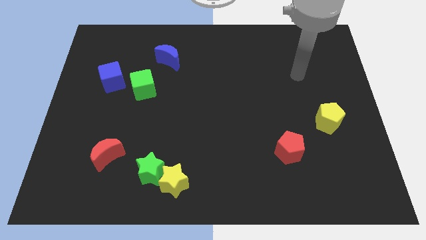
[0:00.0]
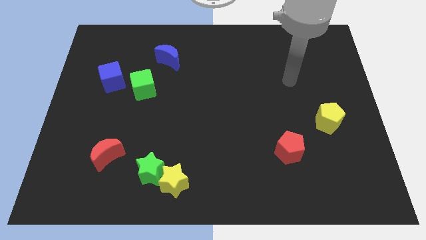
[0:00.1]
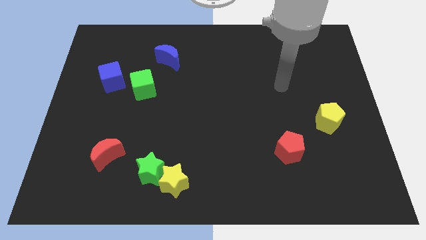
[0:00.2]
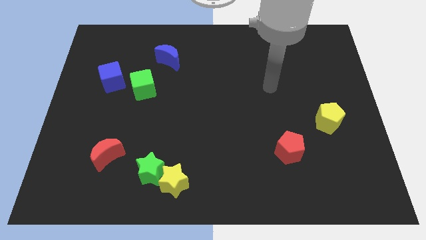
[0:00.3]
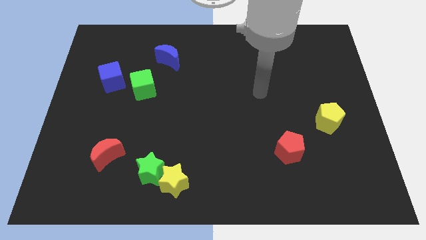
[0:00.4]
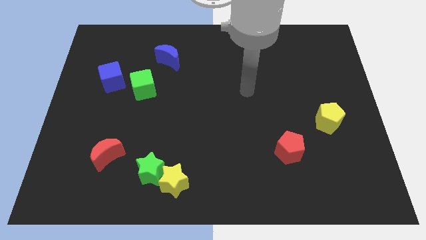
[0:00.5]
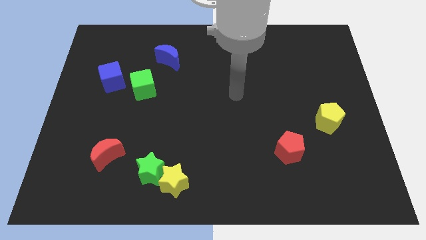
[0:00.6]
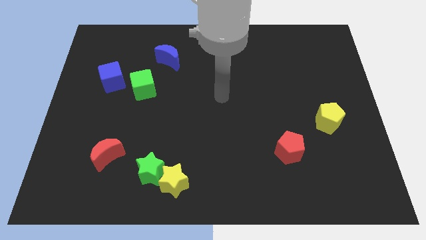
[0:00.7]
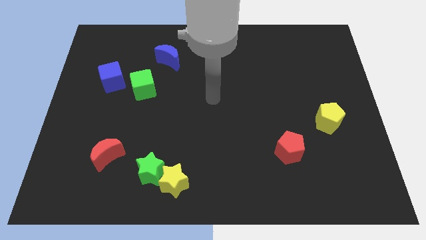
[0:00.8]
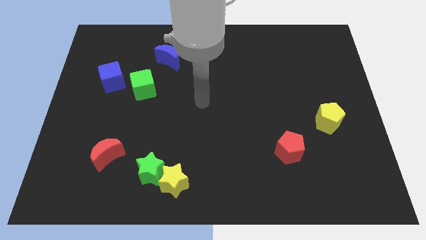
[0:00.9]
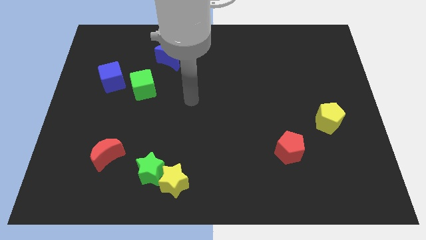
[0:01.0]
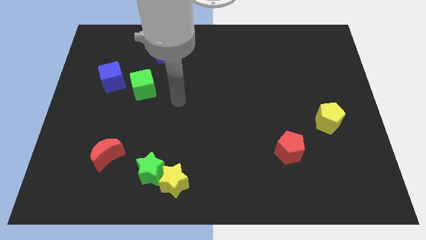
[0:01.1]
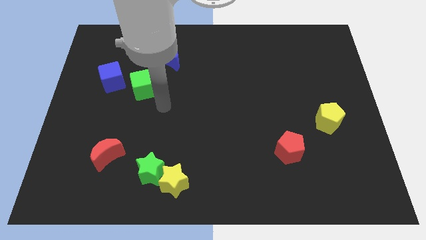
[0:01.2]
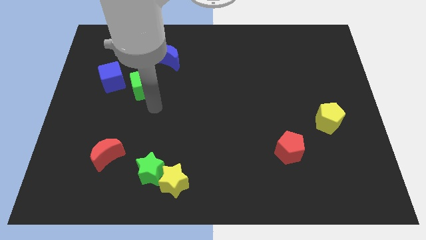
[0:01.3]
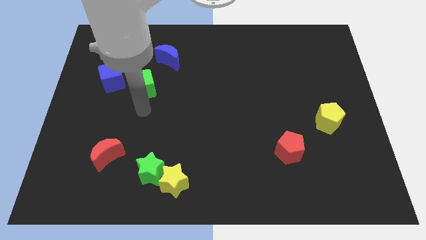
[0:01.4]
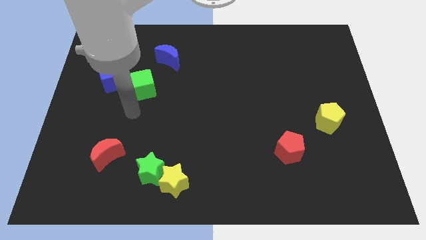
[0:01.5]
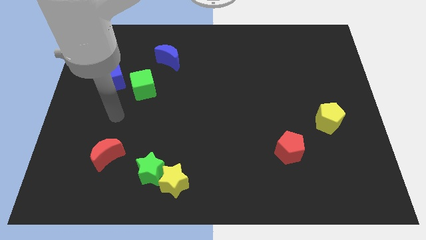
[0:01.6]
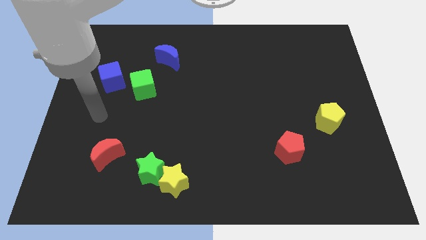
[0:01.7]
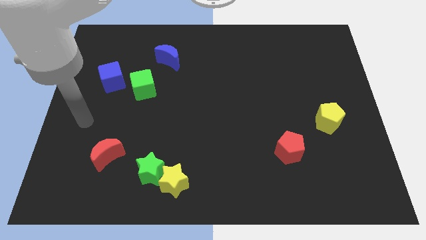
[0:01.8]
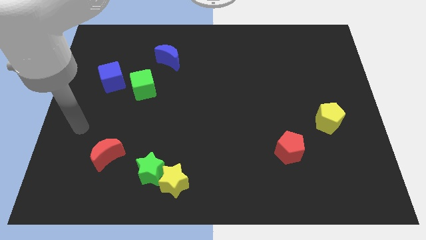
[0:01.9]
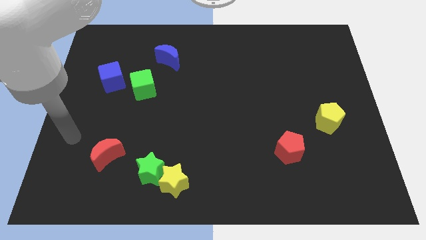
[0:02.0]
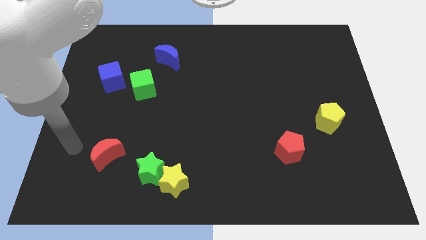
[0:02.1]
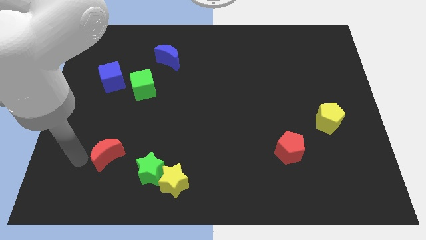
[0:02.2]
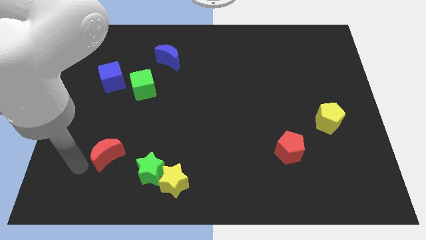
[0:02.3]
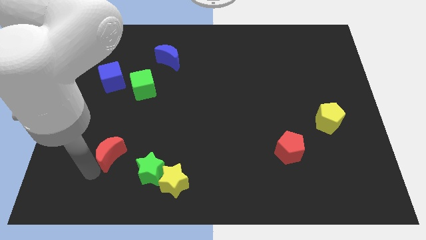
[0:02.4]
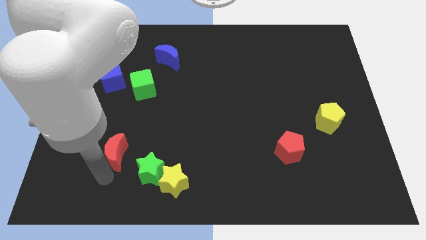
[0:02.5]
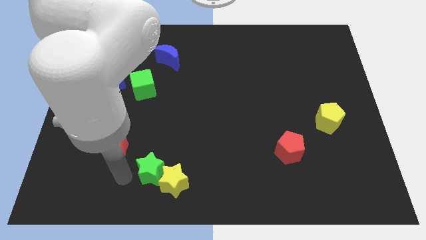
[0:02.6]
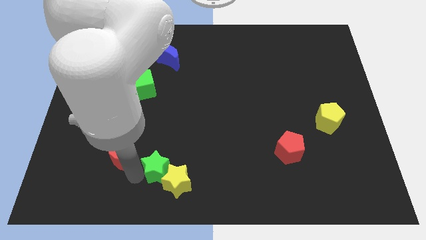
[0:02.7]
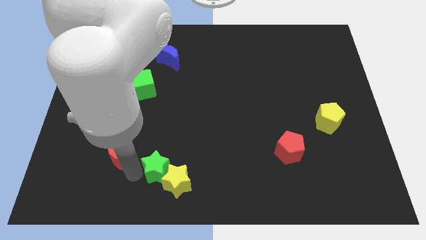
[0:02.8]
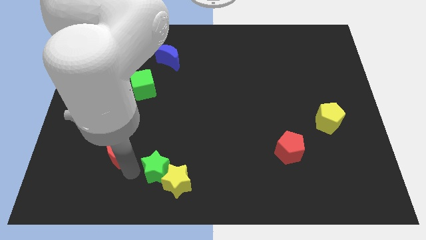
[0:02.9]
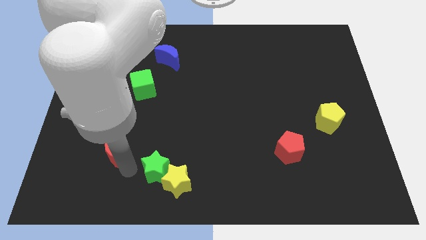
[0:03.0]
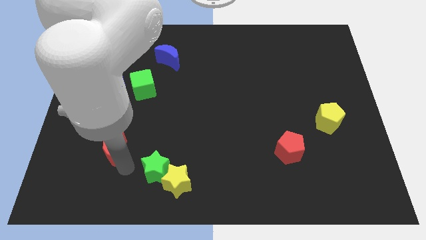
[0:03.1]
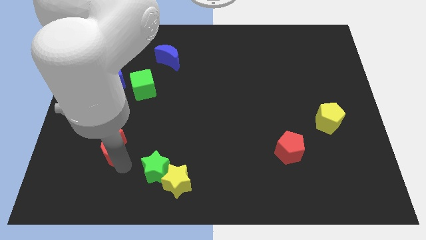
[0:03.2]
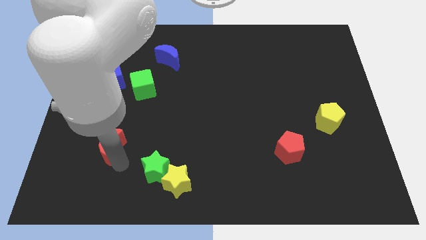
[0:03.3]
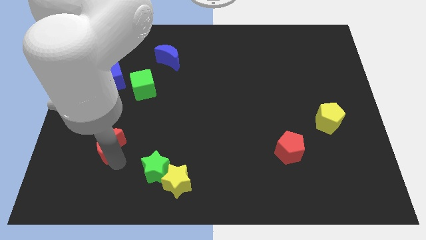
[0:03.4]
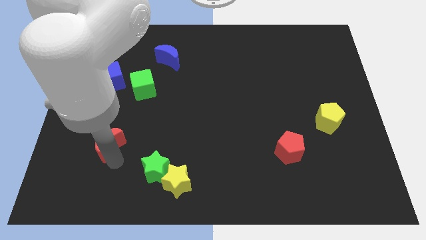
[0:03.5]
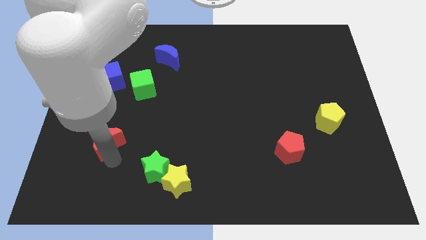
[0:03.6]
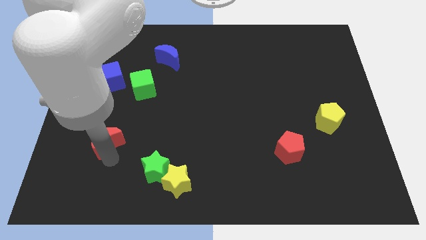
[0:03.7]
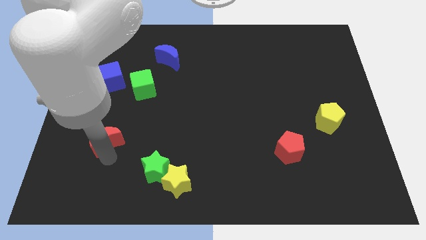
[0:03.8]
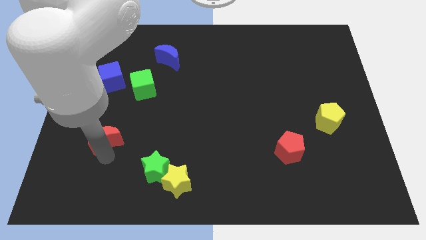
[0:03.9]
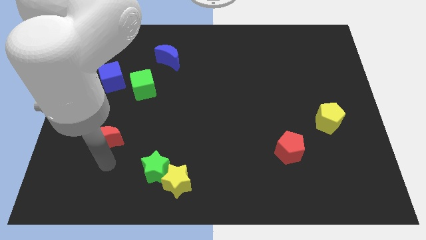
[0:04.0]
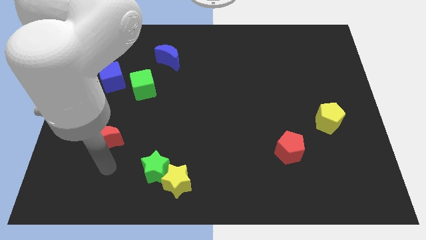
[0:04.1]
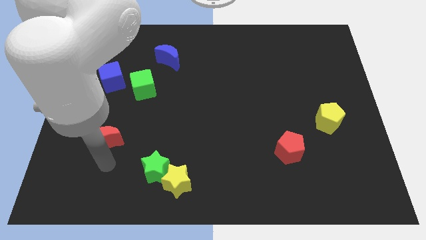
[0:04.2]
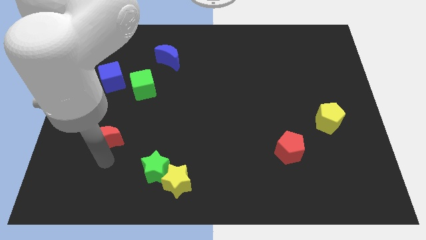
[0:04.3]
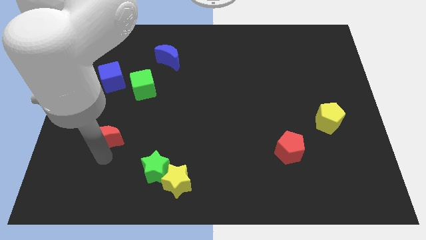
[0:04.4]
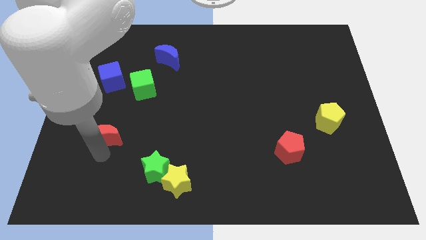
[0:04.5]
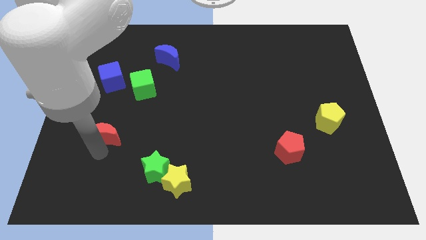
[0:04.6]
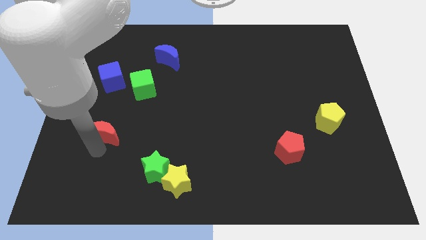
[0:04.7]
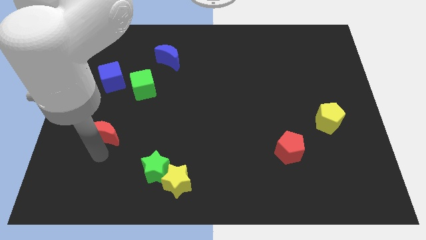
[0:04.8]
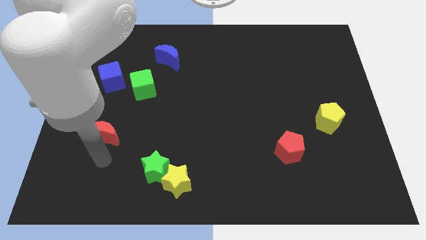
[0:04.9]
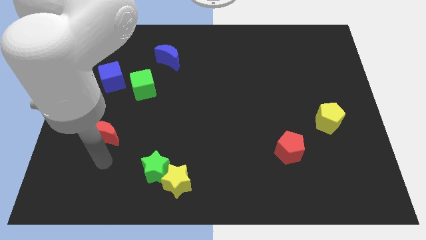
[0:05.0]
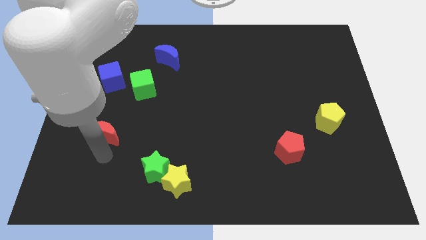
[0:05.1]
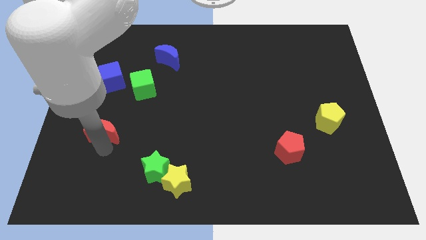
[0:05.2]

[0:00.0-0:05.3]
push the red moon to the bottom side of the blue cube

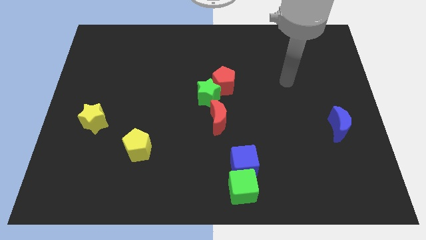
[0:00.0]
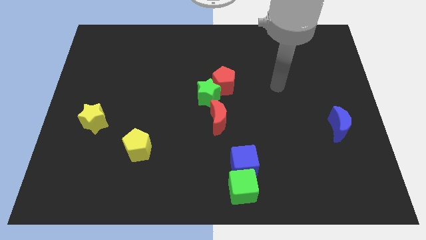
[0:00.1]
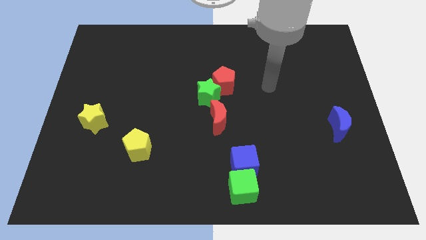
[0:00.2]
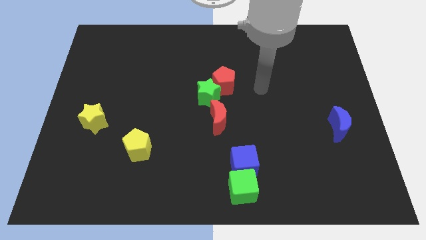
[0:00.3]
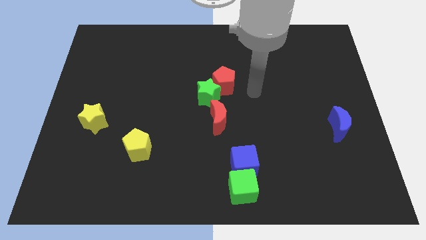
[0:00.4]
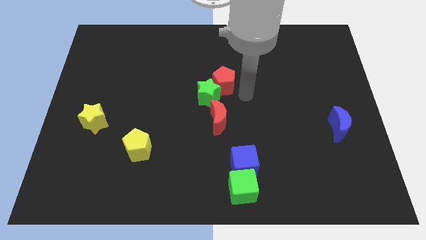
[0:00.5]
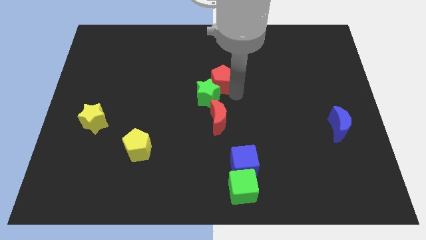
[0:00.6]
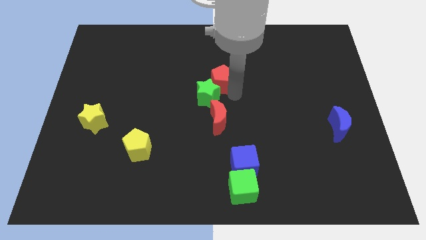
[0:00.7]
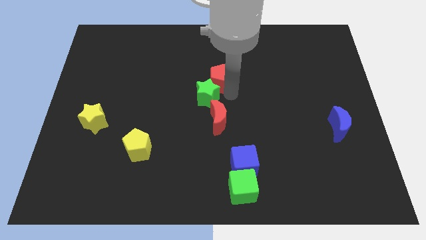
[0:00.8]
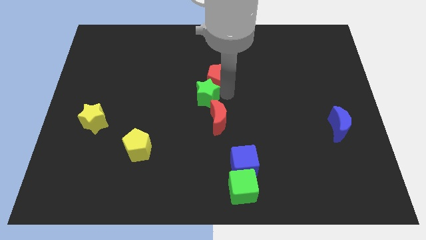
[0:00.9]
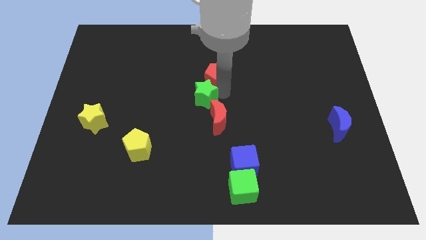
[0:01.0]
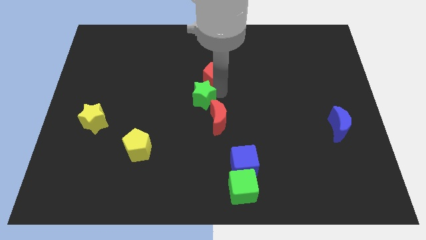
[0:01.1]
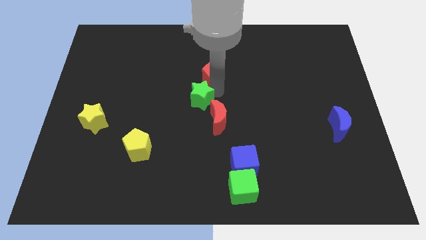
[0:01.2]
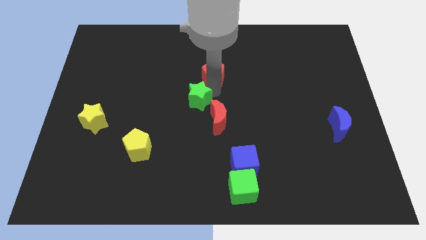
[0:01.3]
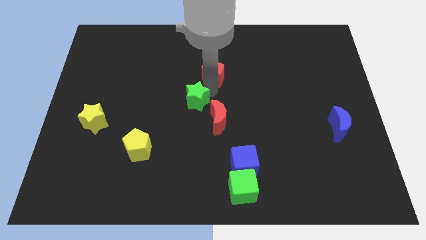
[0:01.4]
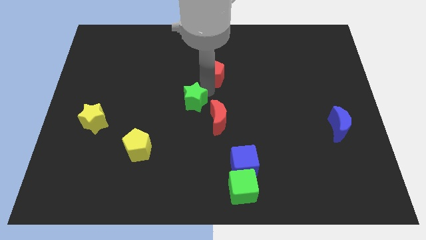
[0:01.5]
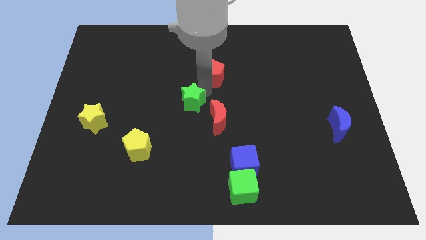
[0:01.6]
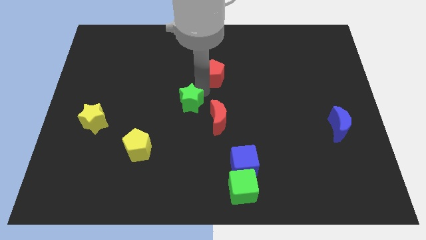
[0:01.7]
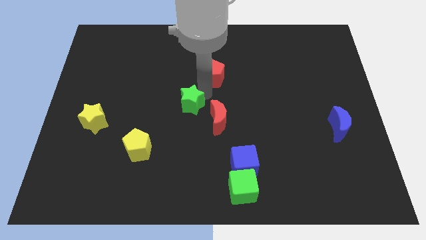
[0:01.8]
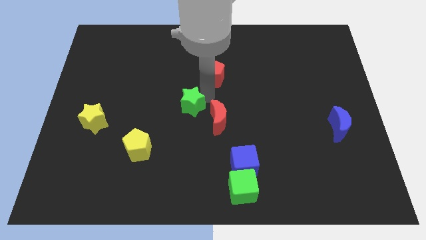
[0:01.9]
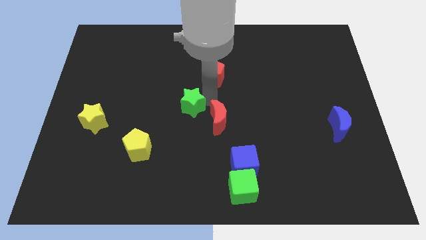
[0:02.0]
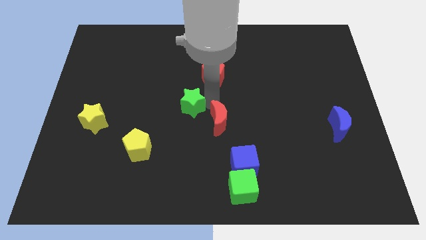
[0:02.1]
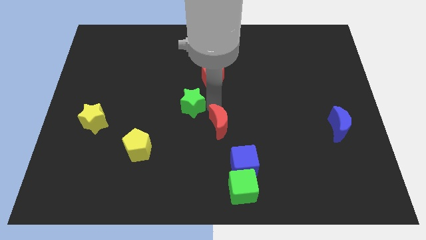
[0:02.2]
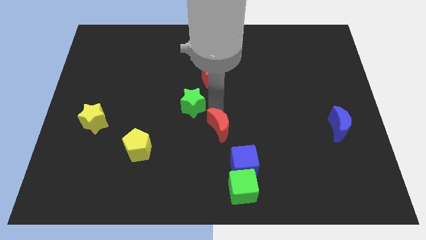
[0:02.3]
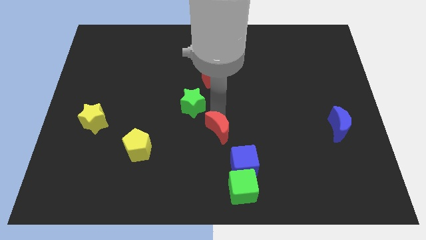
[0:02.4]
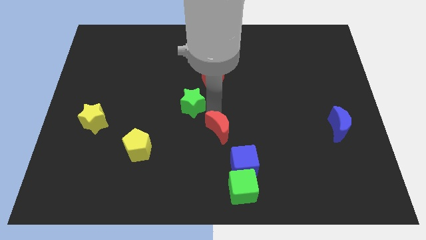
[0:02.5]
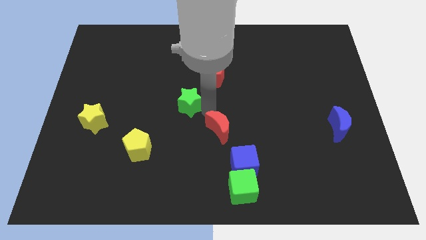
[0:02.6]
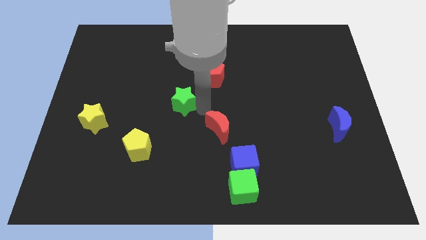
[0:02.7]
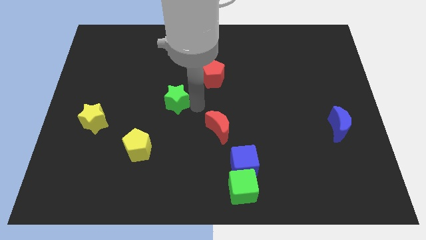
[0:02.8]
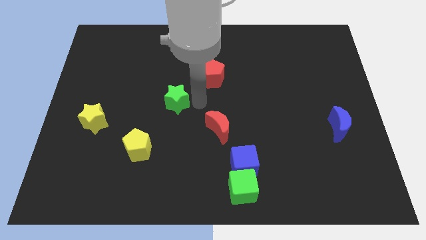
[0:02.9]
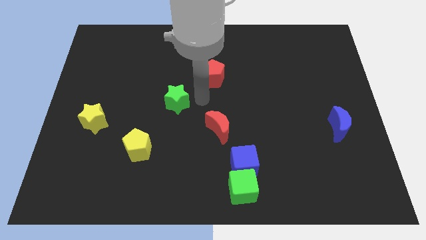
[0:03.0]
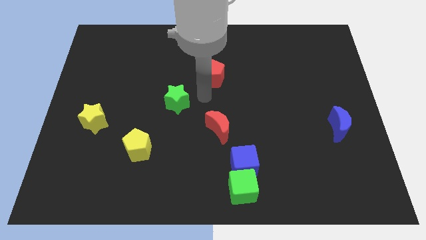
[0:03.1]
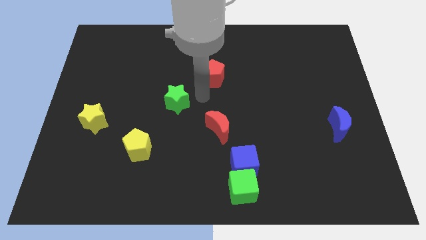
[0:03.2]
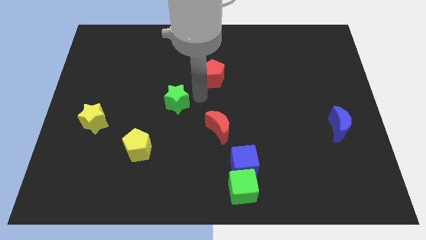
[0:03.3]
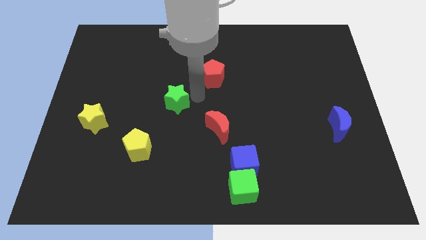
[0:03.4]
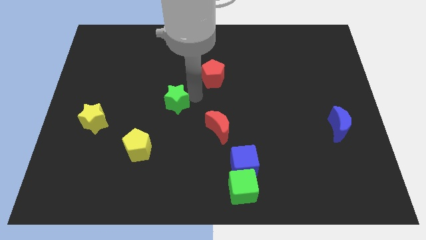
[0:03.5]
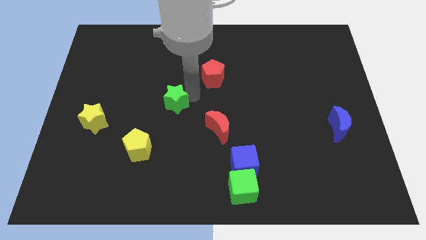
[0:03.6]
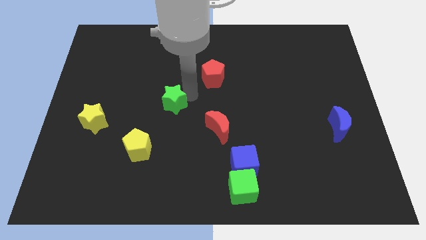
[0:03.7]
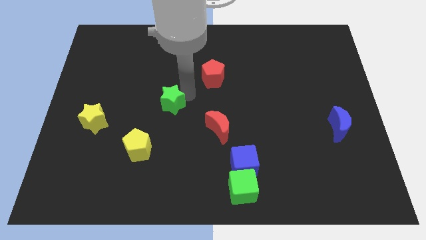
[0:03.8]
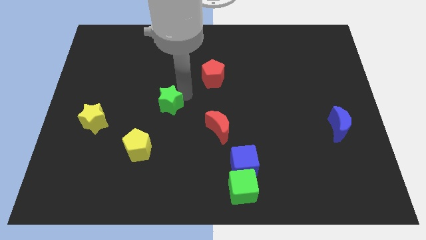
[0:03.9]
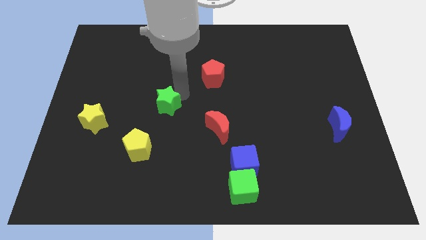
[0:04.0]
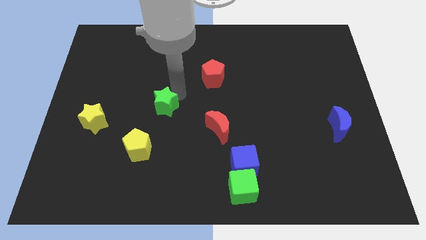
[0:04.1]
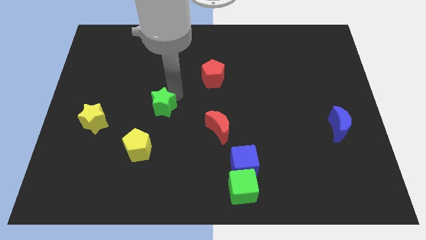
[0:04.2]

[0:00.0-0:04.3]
slide the green star to the top side of the yellow pentagon
